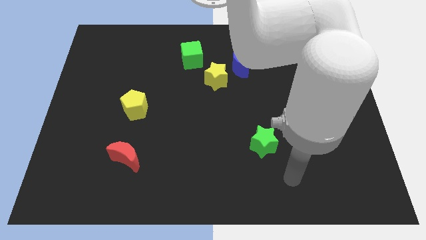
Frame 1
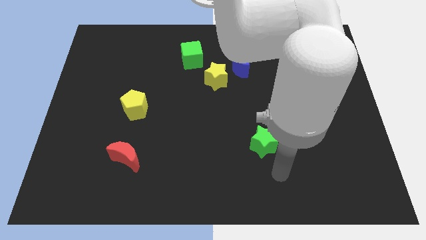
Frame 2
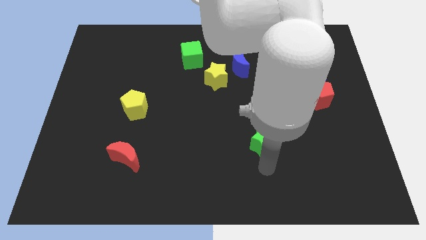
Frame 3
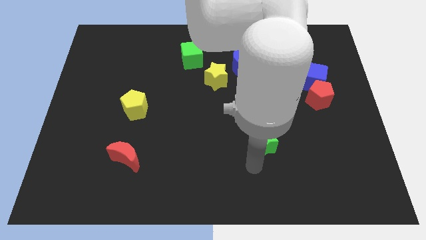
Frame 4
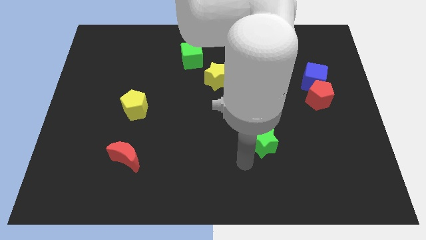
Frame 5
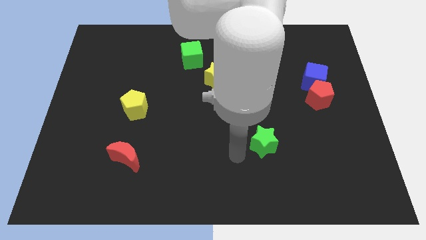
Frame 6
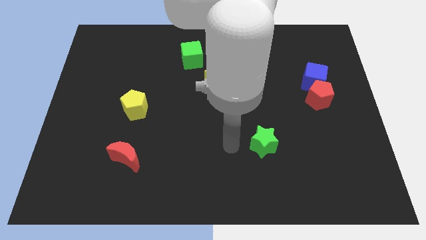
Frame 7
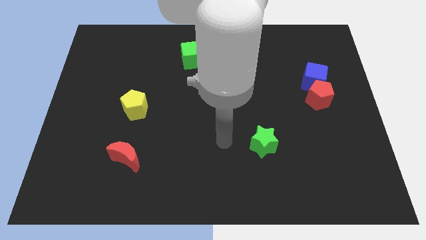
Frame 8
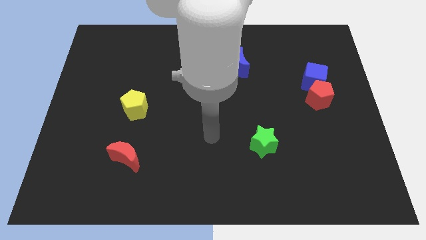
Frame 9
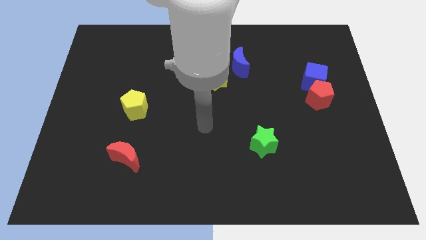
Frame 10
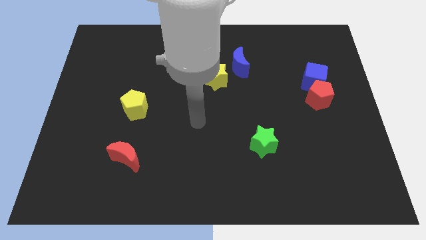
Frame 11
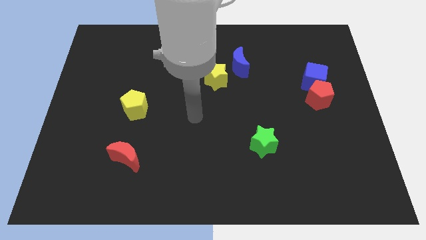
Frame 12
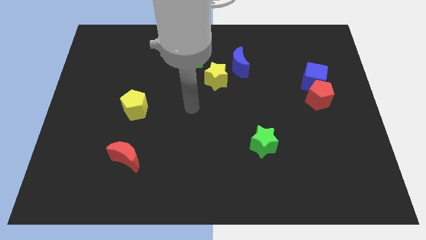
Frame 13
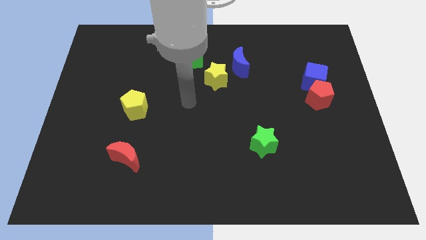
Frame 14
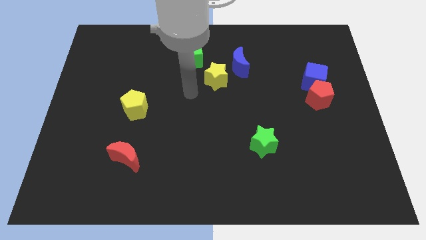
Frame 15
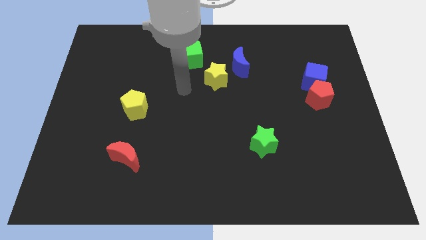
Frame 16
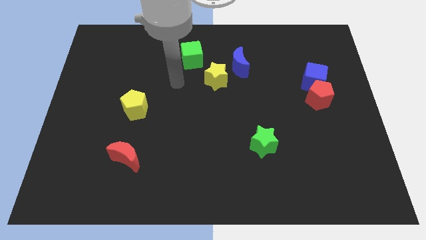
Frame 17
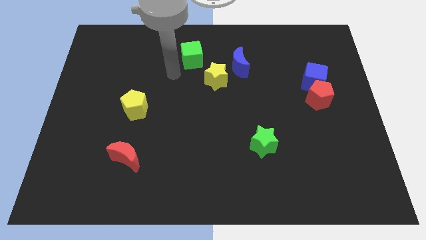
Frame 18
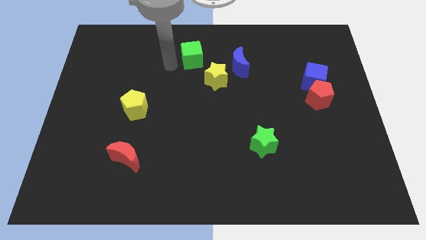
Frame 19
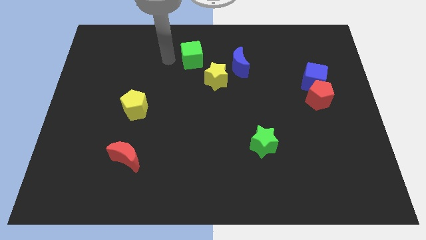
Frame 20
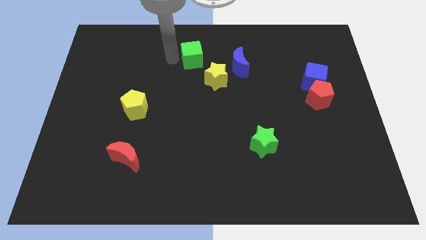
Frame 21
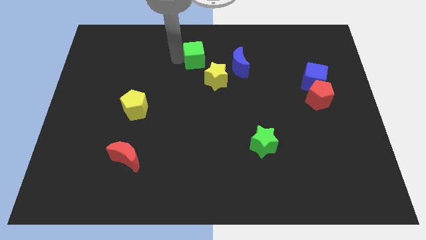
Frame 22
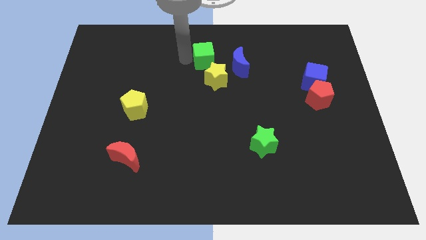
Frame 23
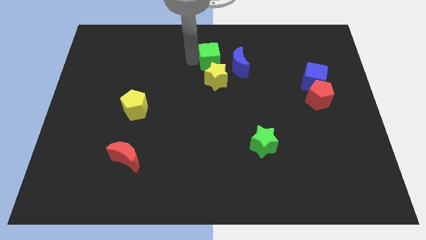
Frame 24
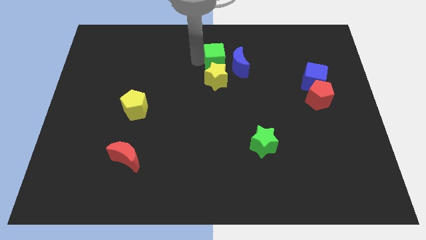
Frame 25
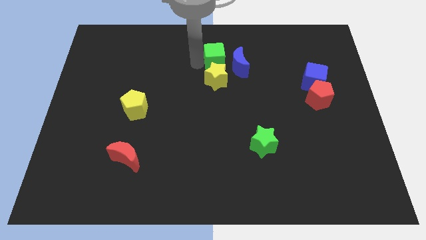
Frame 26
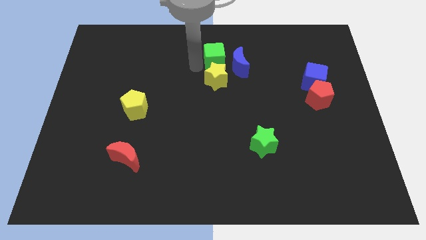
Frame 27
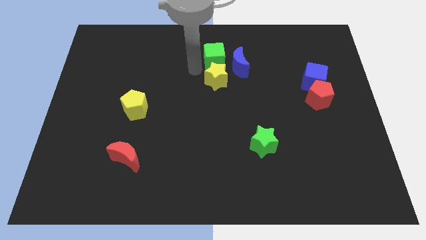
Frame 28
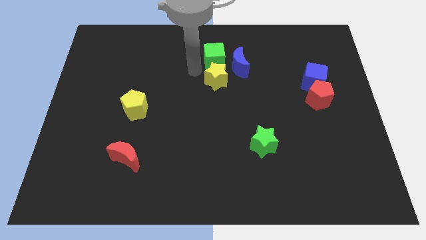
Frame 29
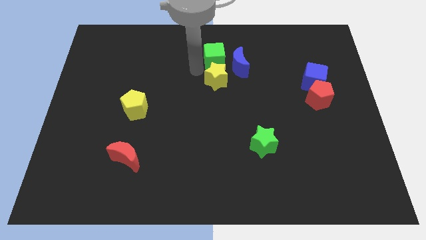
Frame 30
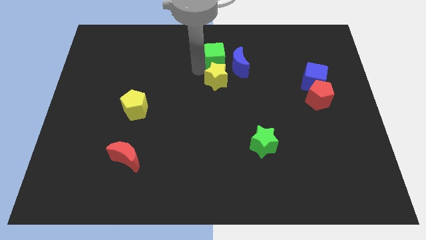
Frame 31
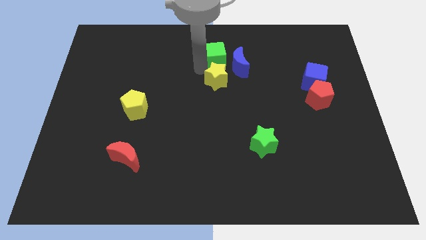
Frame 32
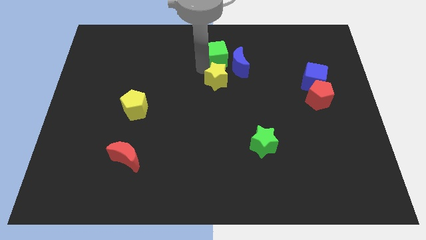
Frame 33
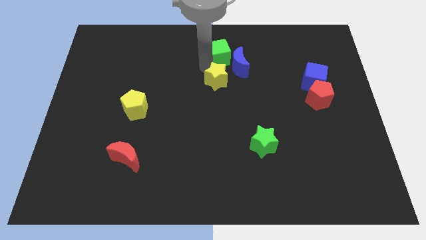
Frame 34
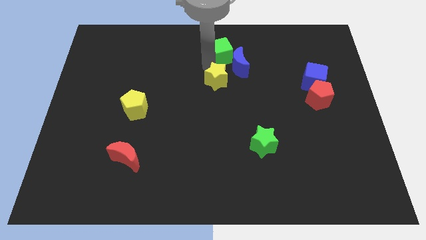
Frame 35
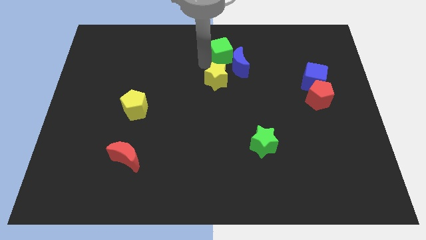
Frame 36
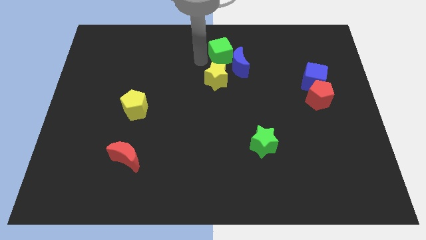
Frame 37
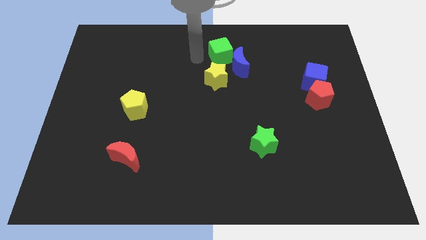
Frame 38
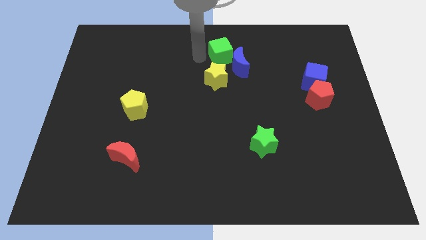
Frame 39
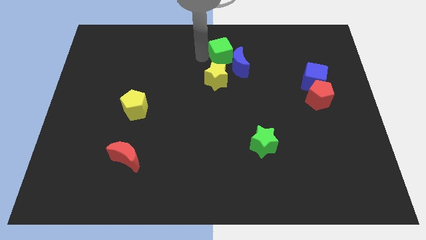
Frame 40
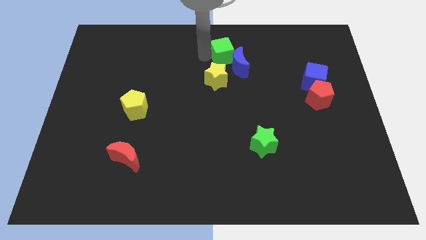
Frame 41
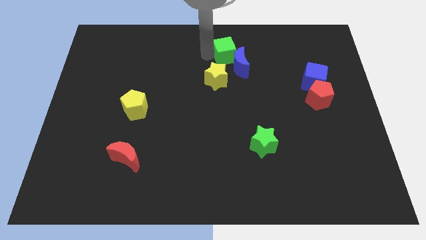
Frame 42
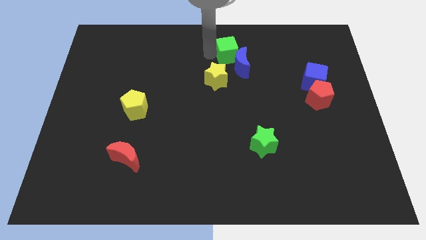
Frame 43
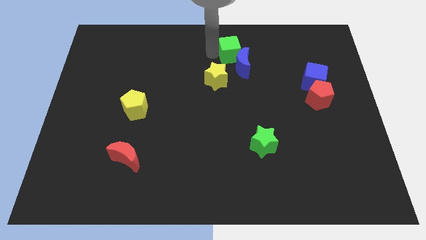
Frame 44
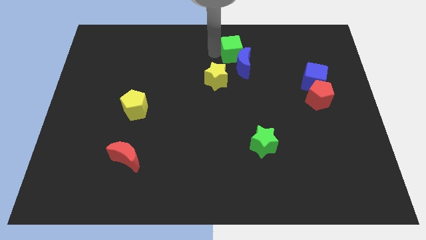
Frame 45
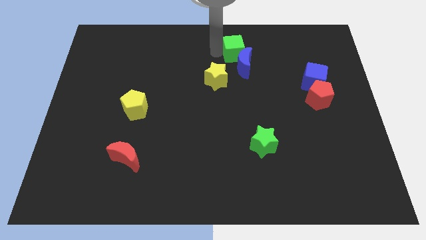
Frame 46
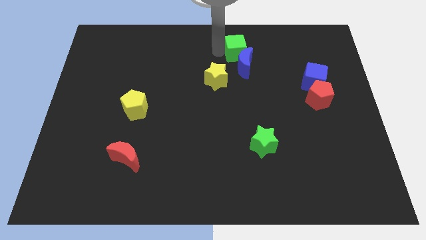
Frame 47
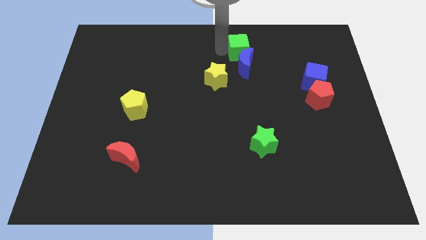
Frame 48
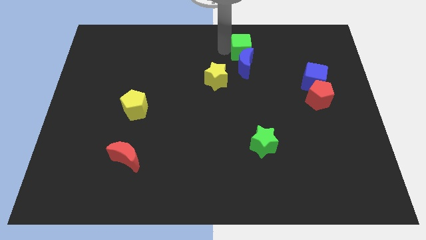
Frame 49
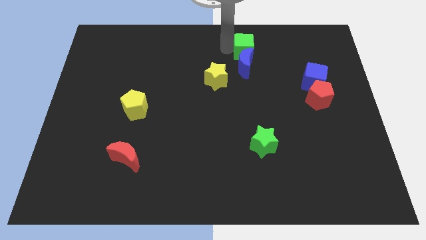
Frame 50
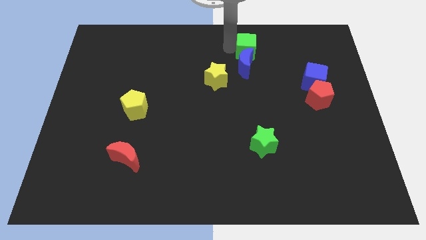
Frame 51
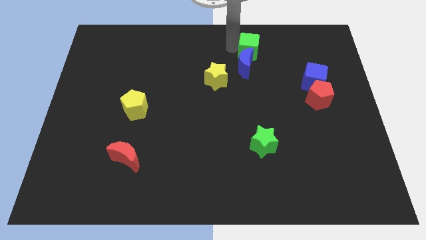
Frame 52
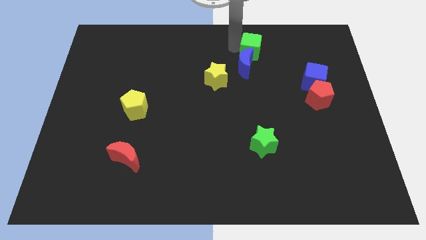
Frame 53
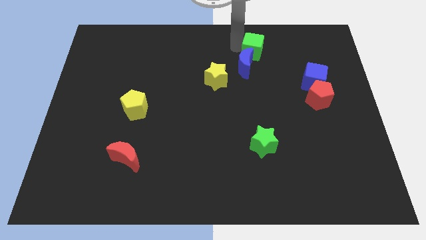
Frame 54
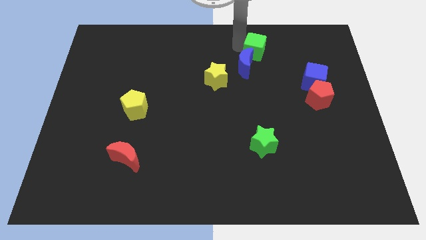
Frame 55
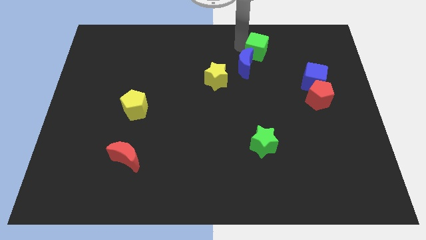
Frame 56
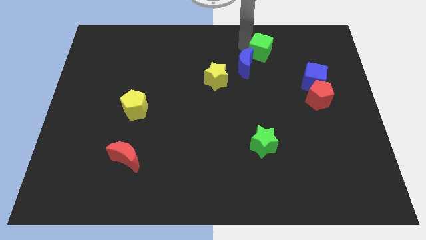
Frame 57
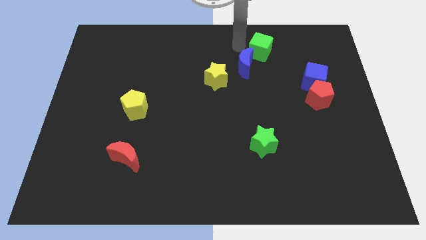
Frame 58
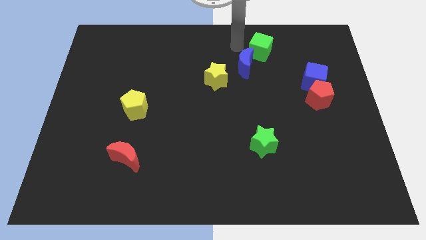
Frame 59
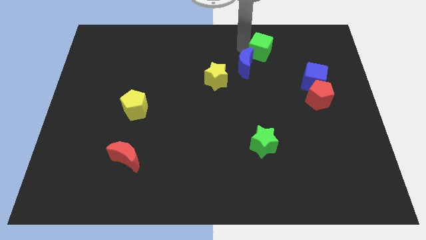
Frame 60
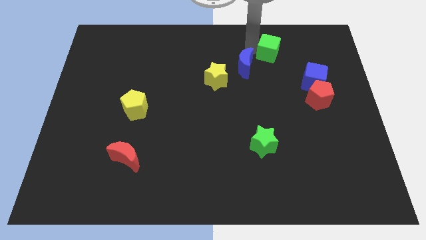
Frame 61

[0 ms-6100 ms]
slide the green cube to the right

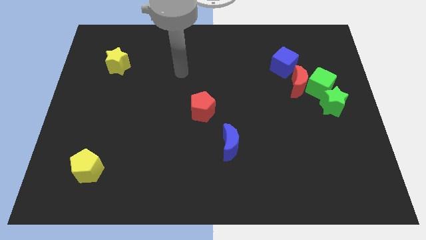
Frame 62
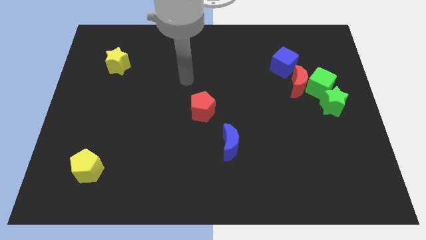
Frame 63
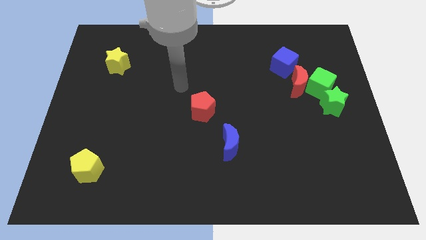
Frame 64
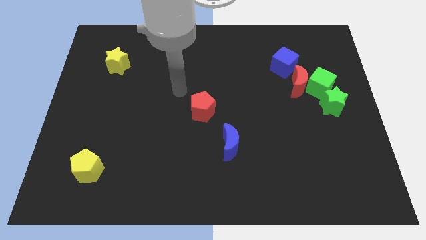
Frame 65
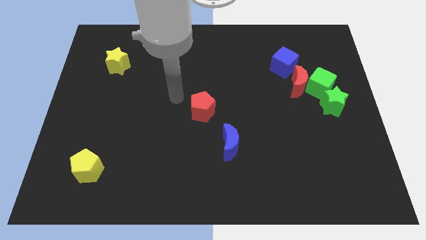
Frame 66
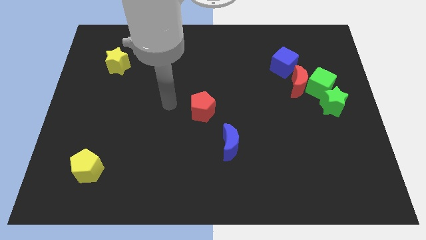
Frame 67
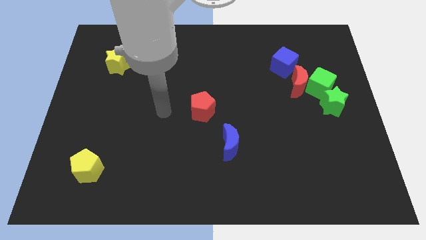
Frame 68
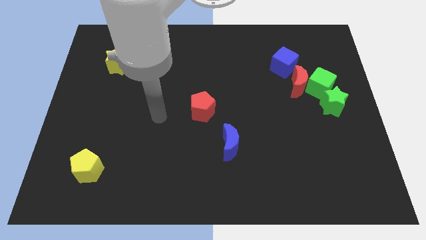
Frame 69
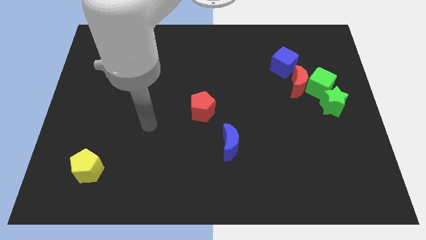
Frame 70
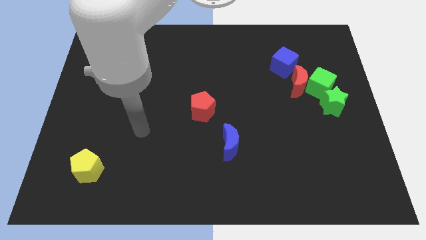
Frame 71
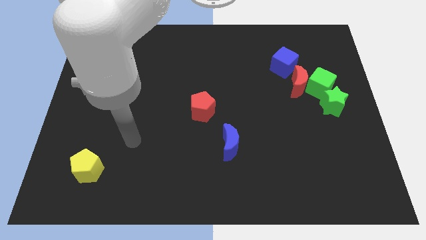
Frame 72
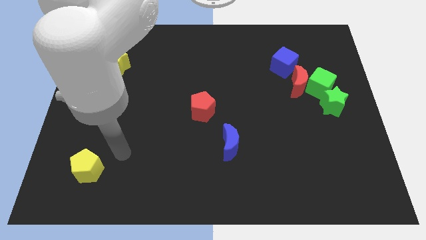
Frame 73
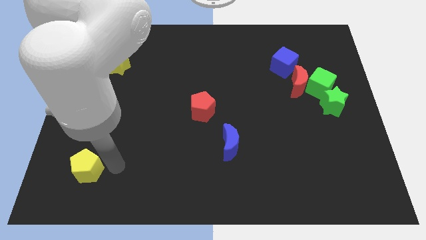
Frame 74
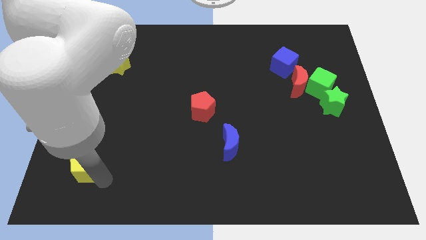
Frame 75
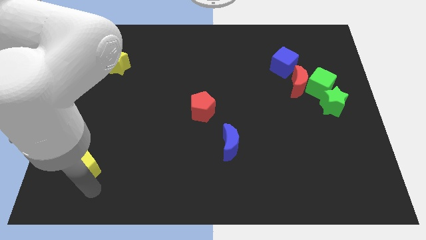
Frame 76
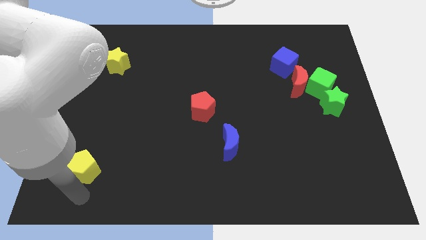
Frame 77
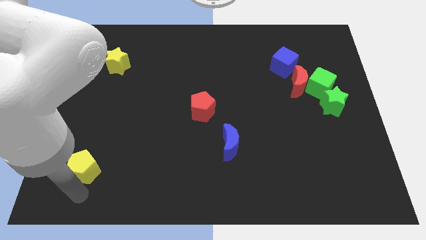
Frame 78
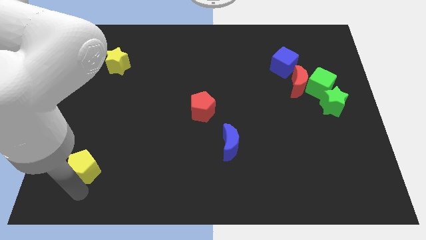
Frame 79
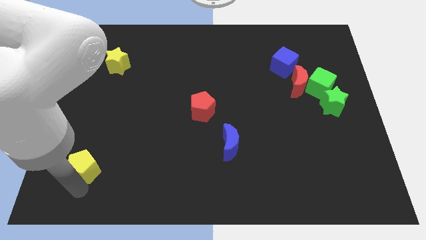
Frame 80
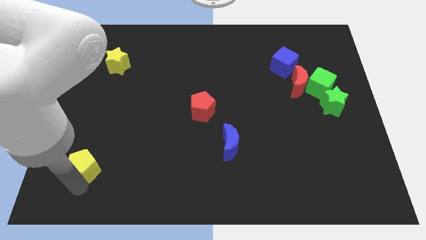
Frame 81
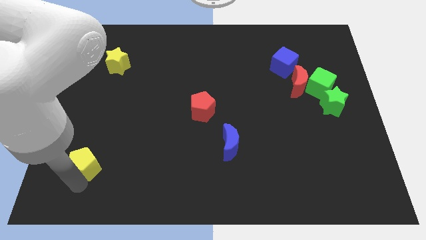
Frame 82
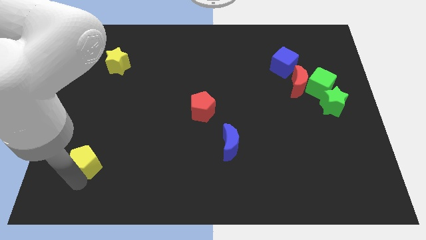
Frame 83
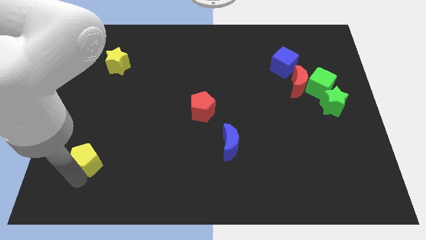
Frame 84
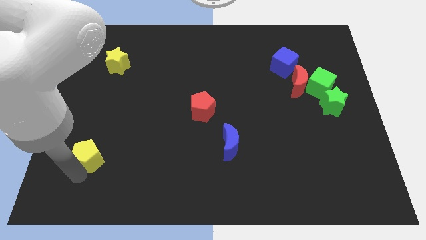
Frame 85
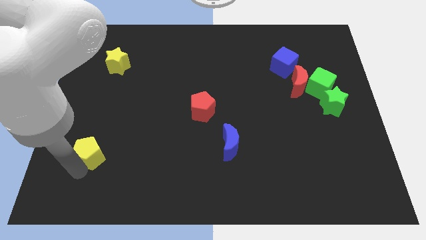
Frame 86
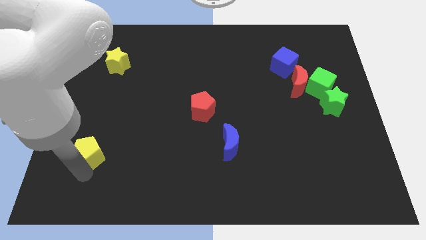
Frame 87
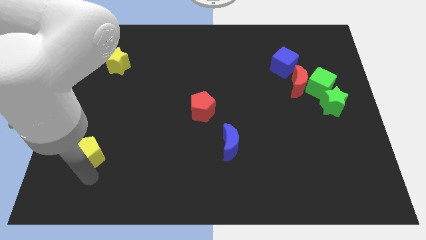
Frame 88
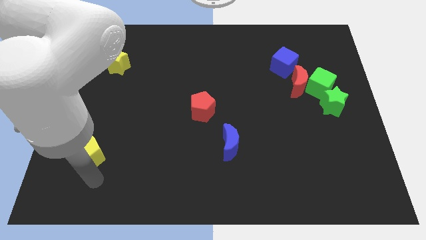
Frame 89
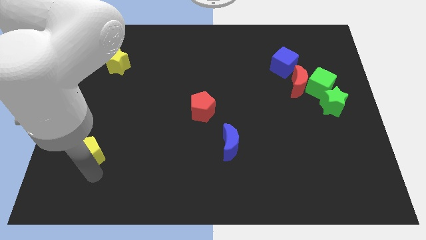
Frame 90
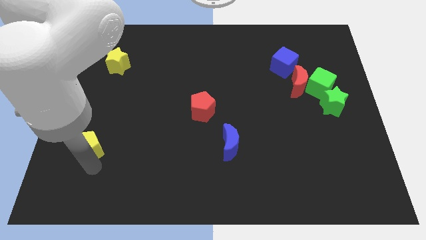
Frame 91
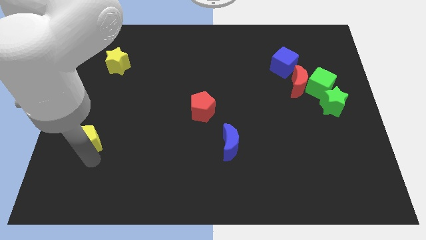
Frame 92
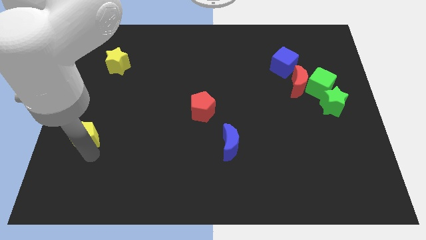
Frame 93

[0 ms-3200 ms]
slightly push the yellow pentagon up
